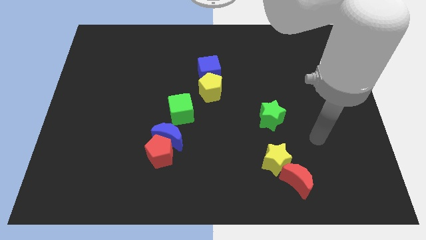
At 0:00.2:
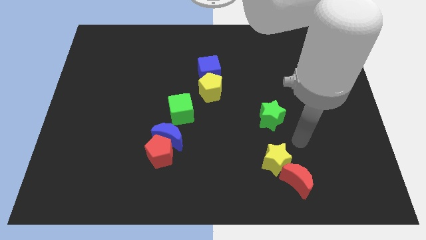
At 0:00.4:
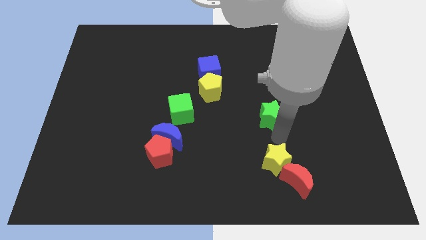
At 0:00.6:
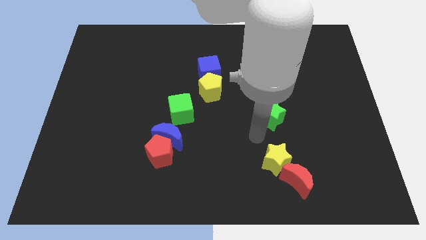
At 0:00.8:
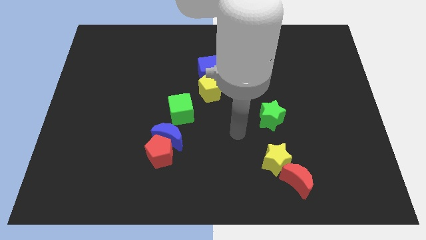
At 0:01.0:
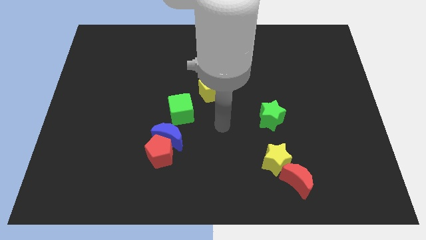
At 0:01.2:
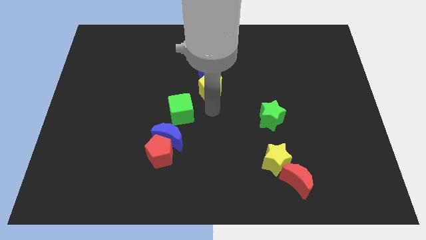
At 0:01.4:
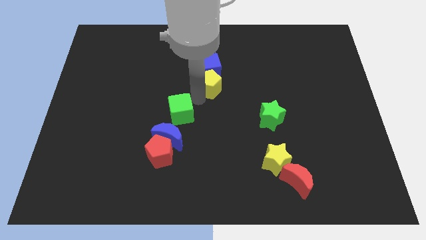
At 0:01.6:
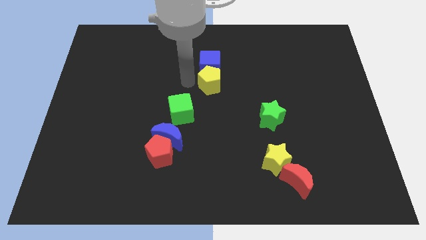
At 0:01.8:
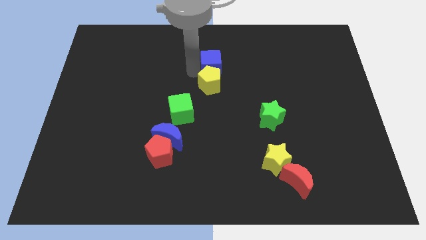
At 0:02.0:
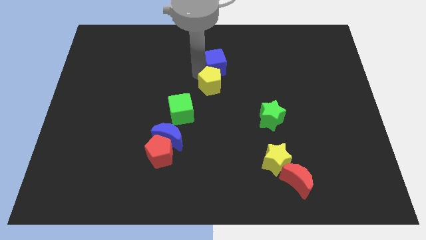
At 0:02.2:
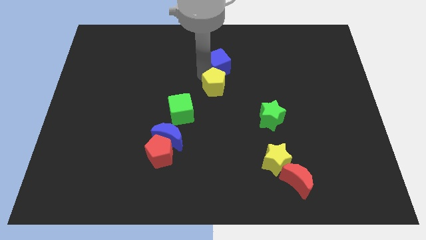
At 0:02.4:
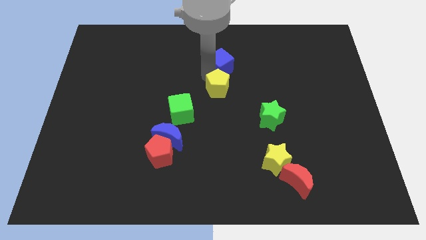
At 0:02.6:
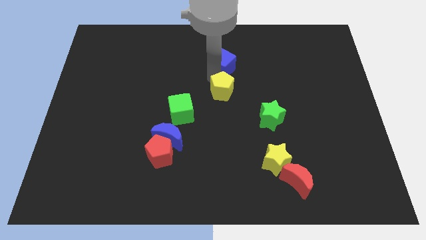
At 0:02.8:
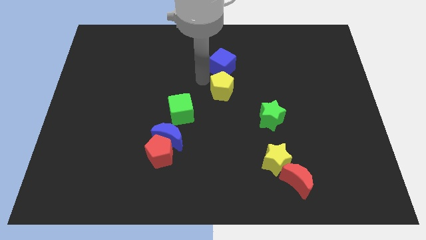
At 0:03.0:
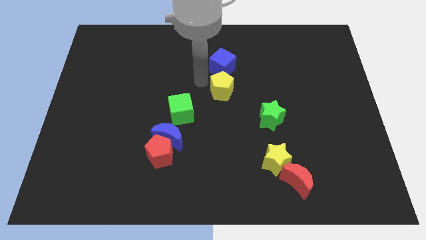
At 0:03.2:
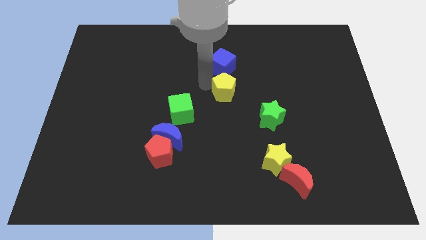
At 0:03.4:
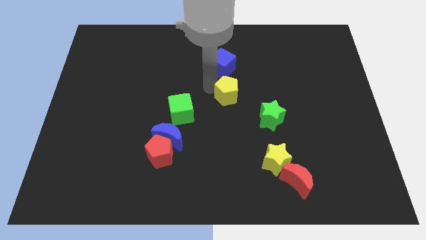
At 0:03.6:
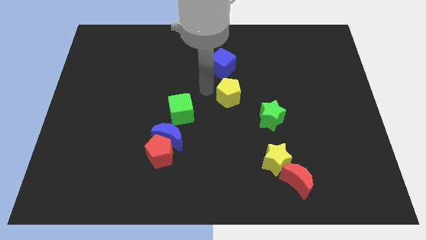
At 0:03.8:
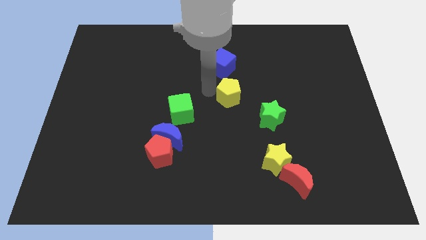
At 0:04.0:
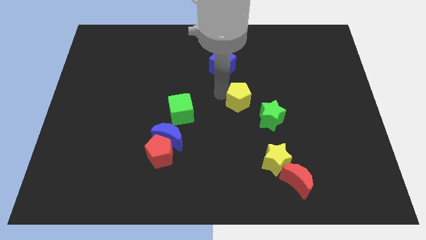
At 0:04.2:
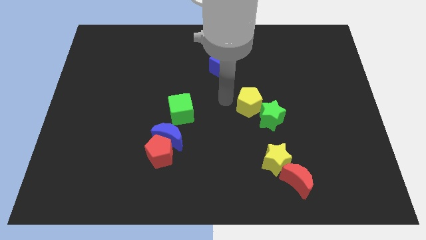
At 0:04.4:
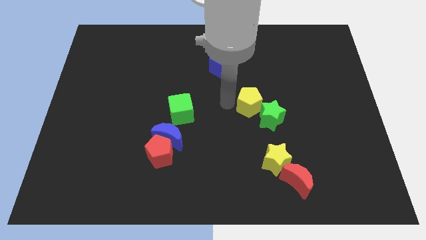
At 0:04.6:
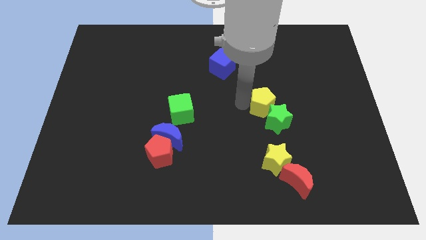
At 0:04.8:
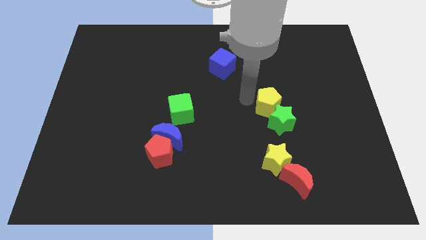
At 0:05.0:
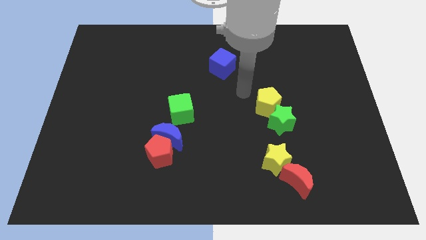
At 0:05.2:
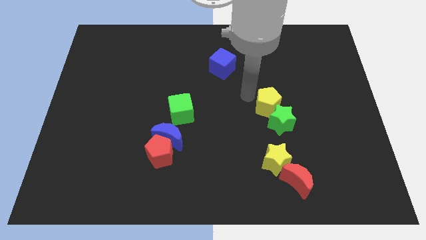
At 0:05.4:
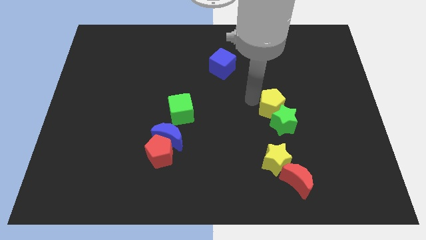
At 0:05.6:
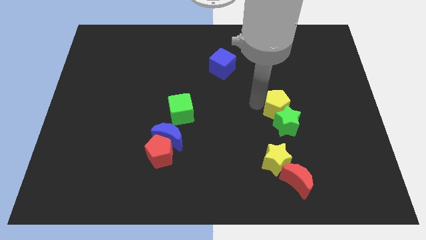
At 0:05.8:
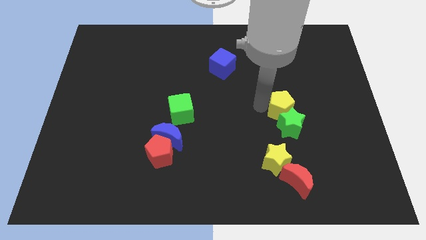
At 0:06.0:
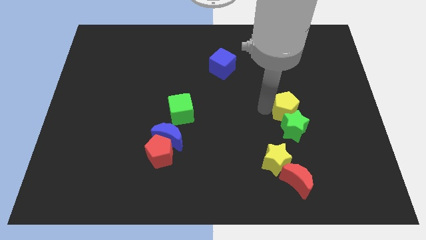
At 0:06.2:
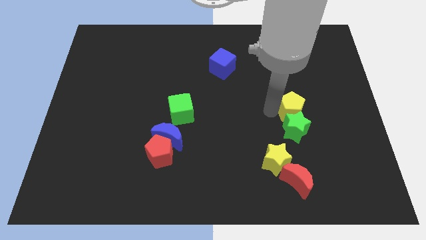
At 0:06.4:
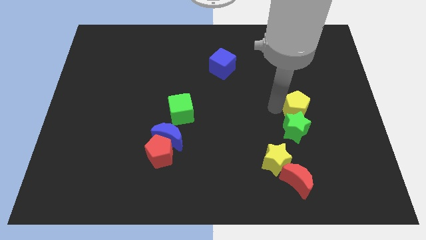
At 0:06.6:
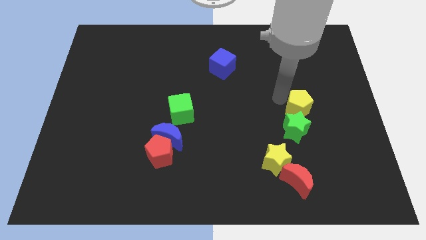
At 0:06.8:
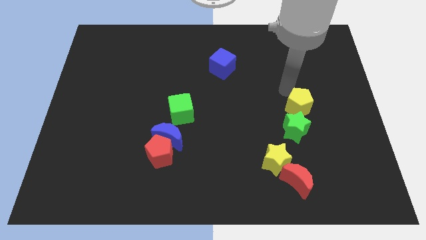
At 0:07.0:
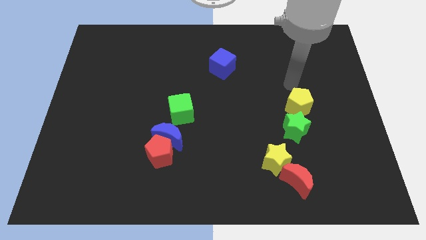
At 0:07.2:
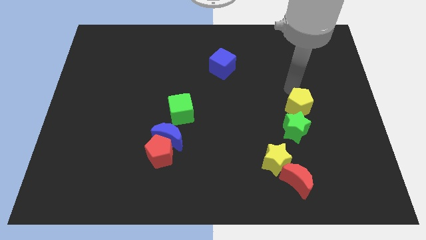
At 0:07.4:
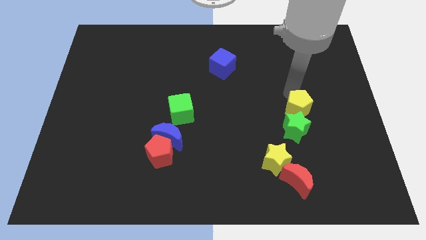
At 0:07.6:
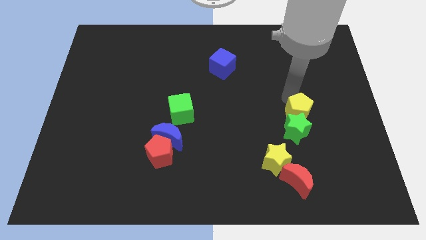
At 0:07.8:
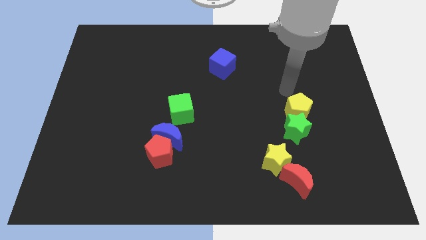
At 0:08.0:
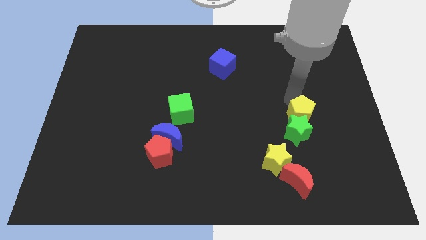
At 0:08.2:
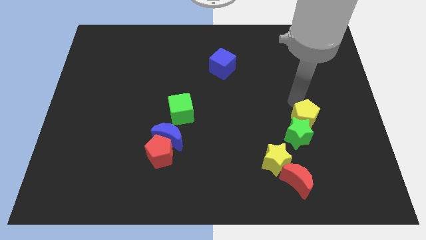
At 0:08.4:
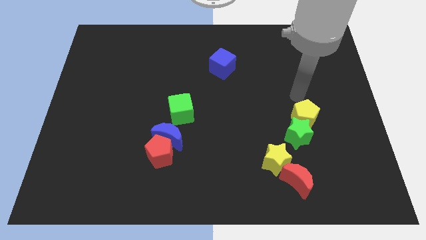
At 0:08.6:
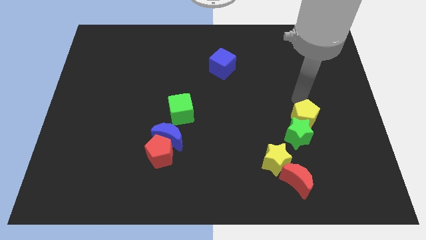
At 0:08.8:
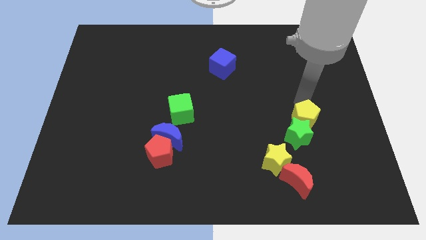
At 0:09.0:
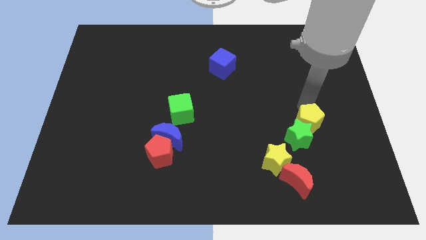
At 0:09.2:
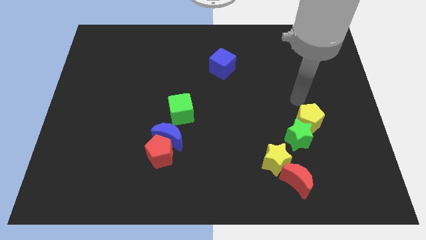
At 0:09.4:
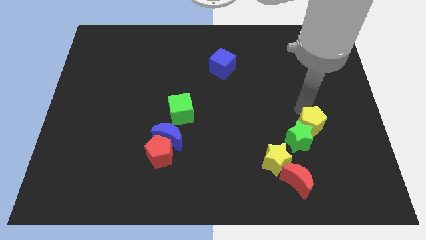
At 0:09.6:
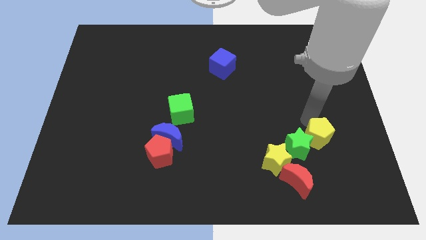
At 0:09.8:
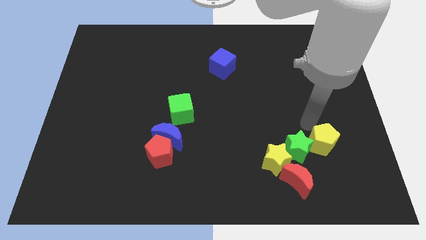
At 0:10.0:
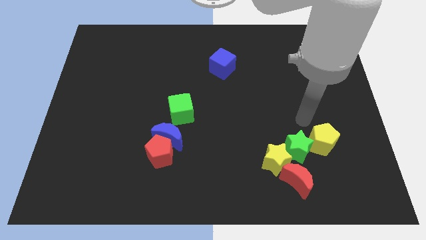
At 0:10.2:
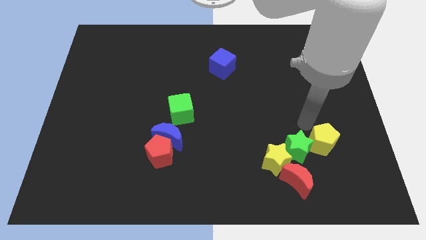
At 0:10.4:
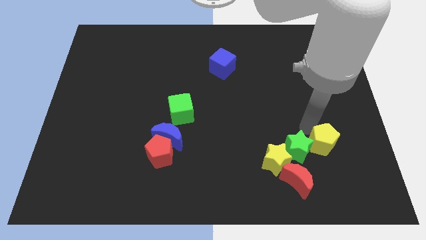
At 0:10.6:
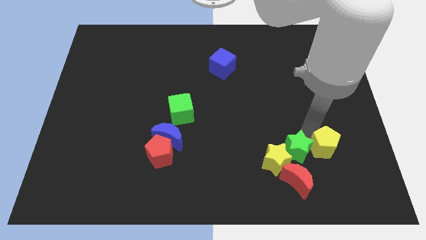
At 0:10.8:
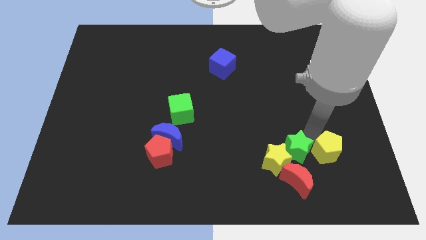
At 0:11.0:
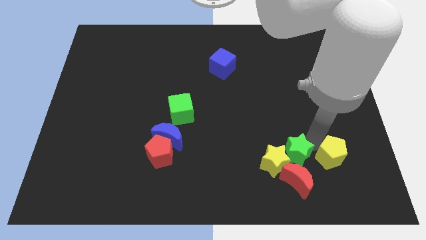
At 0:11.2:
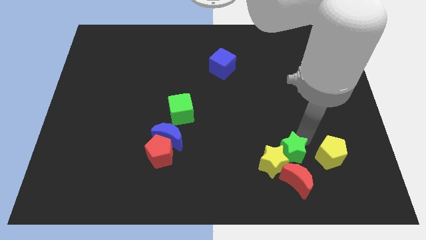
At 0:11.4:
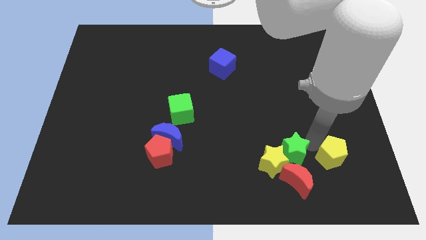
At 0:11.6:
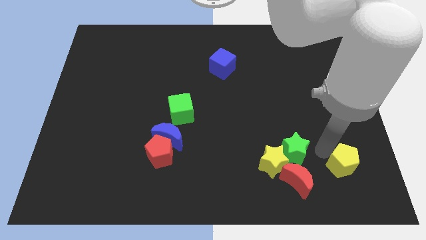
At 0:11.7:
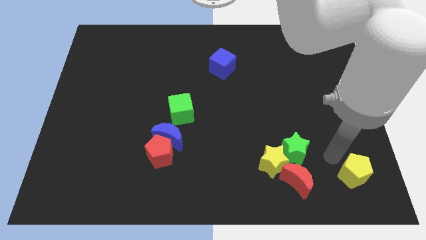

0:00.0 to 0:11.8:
slide the yellow pentagon to the bottom right
